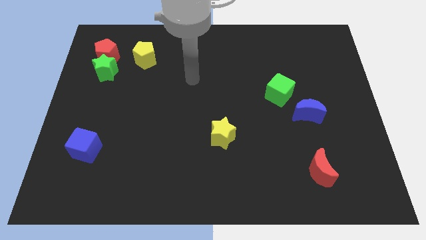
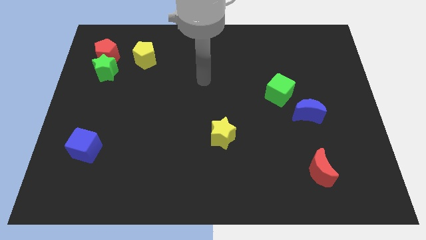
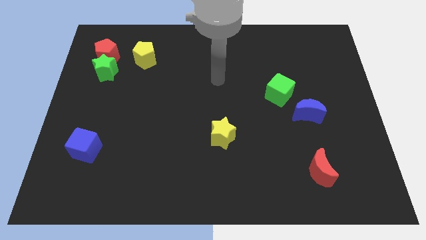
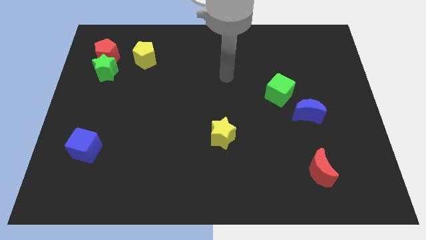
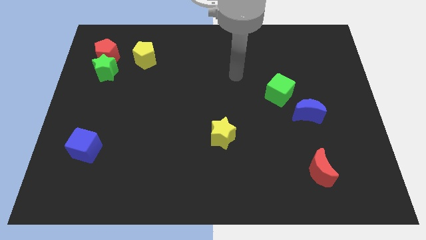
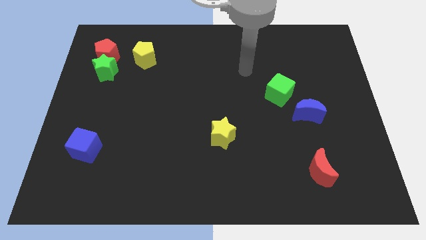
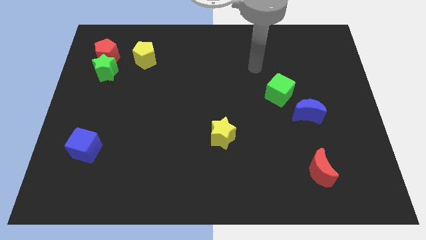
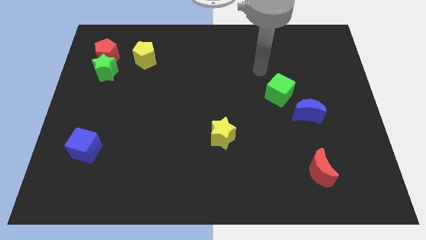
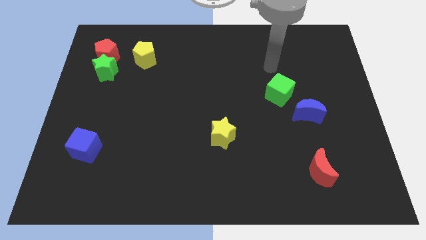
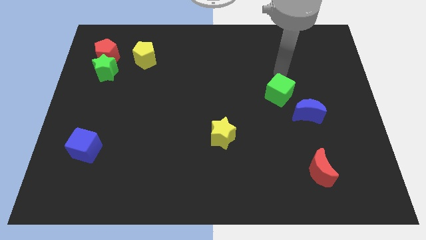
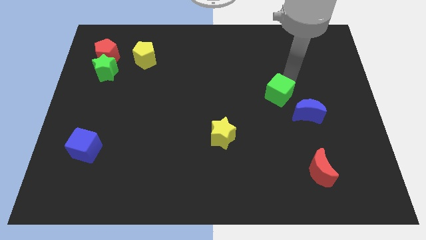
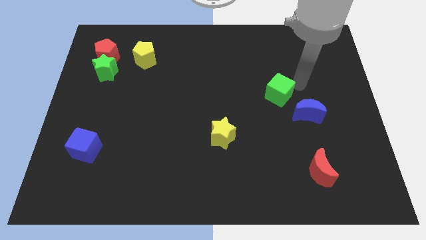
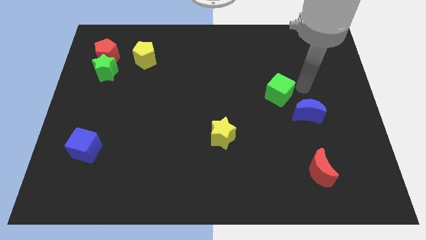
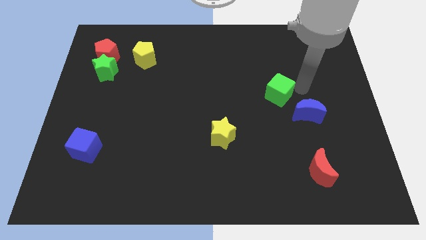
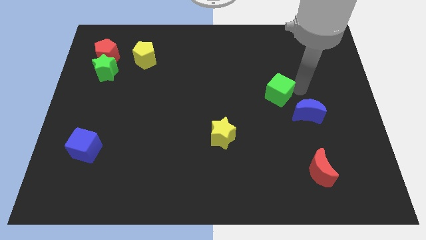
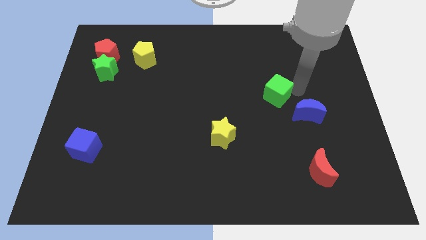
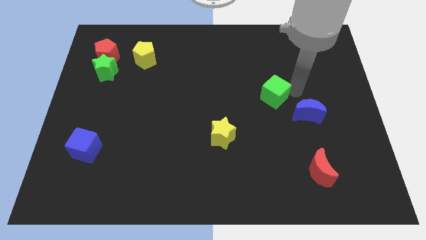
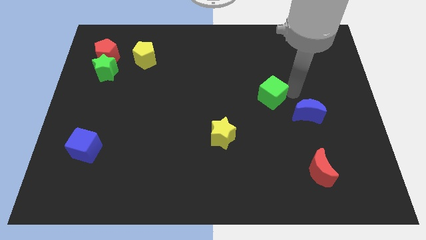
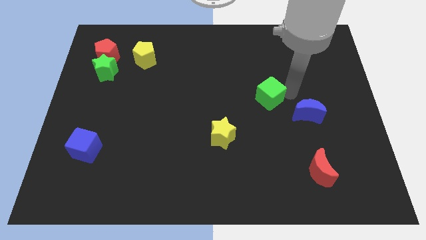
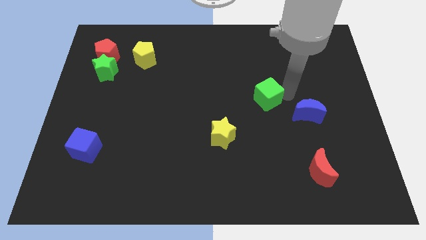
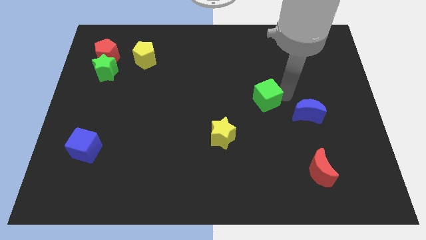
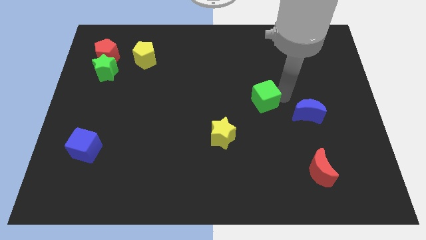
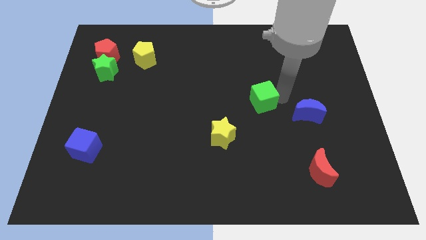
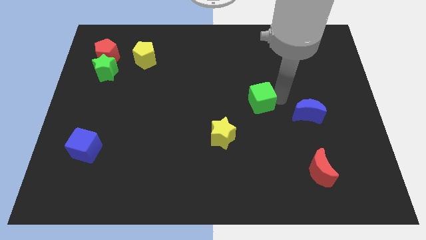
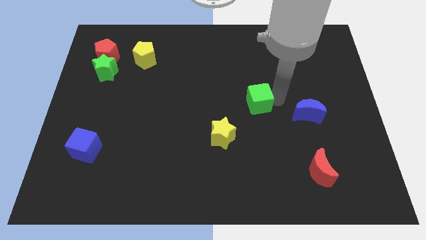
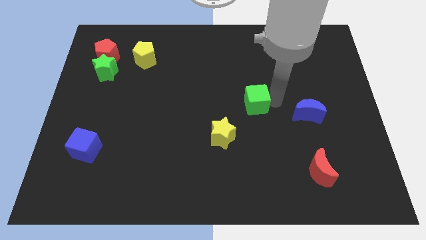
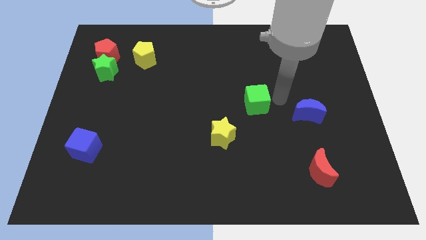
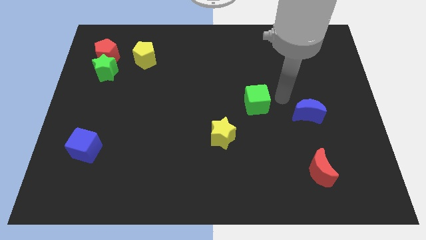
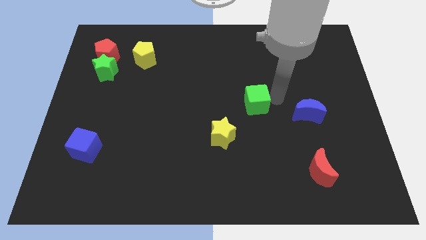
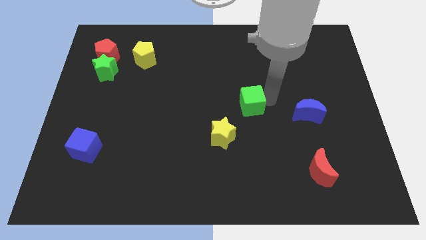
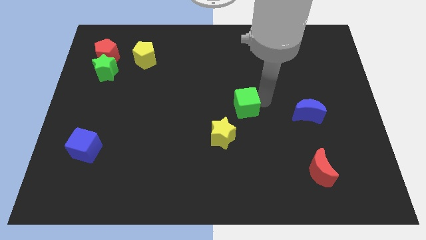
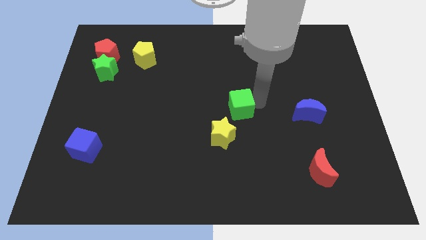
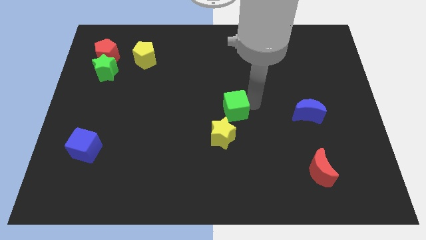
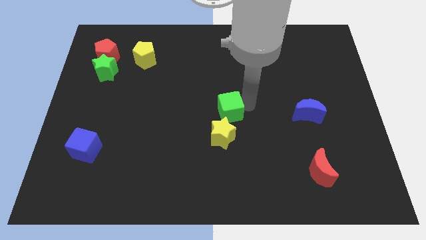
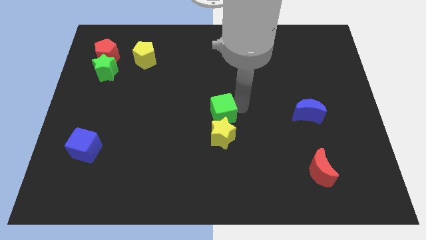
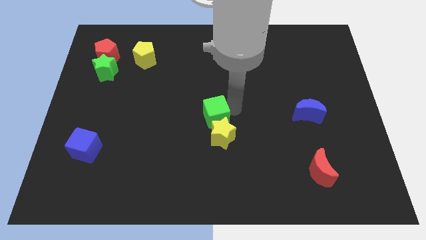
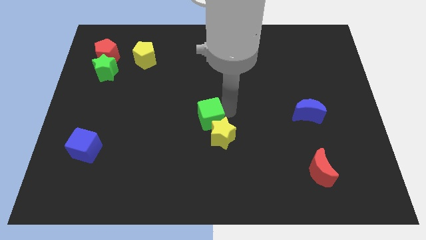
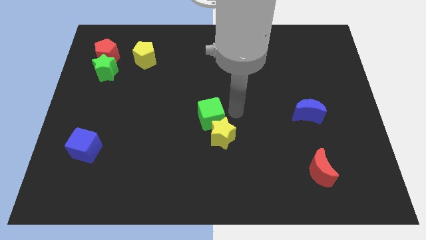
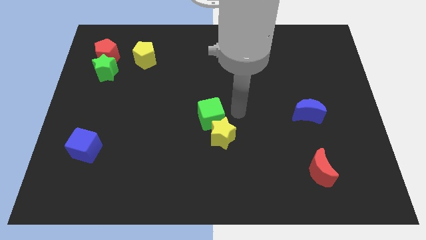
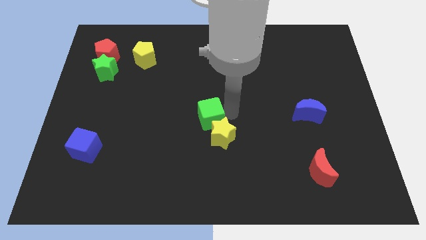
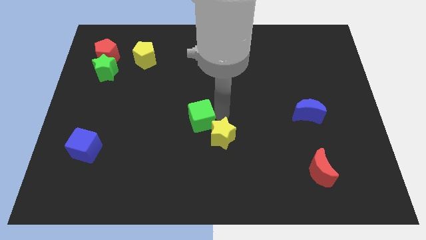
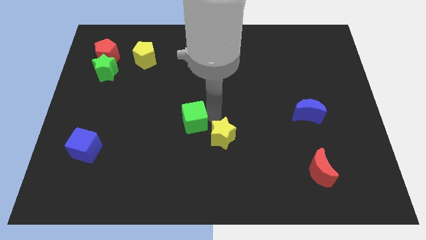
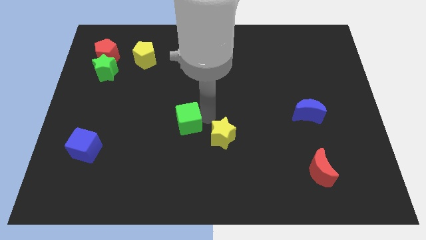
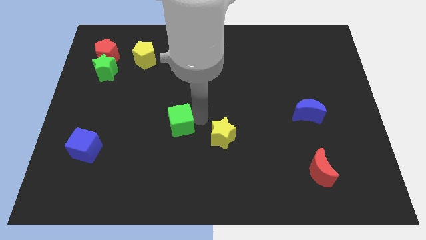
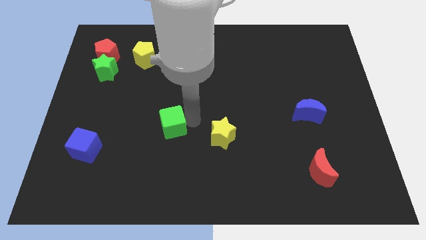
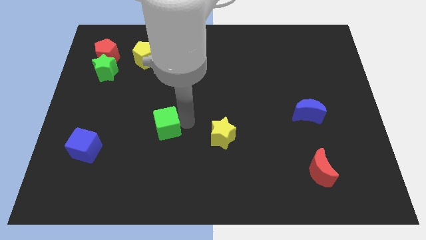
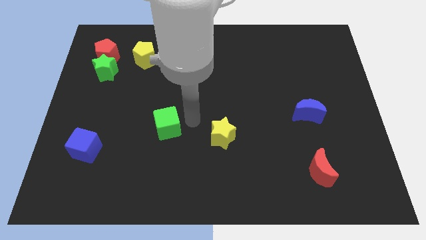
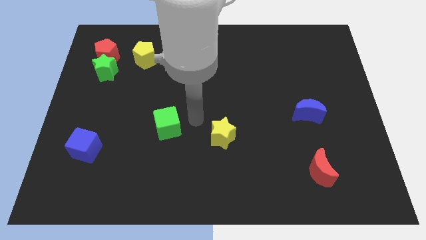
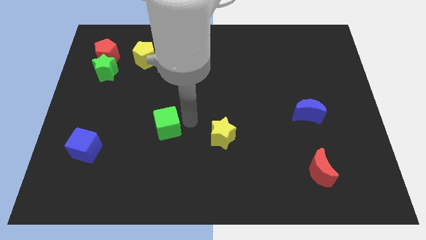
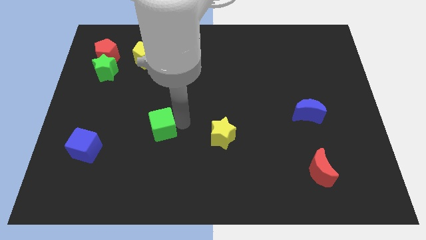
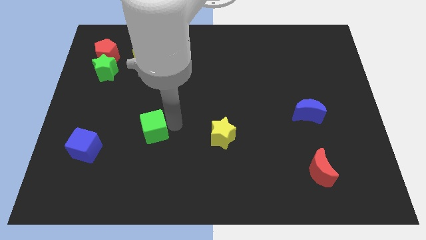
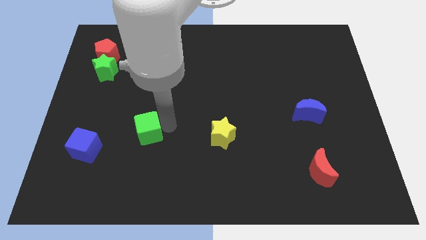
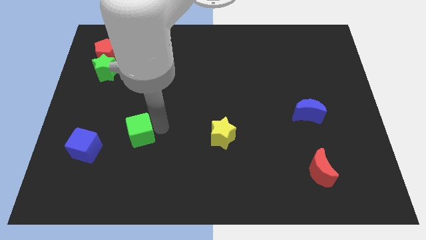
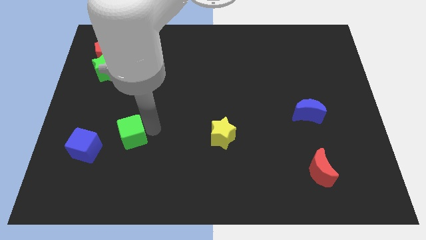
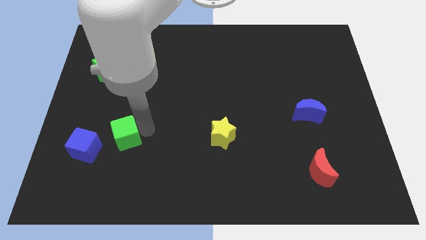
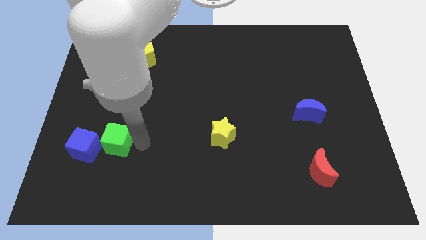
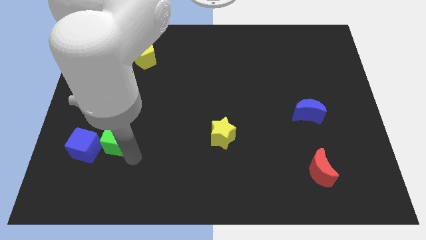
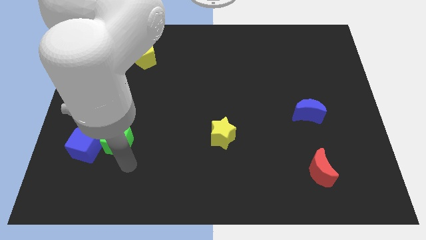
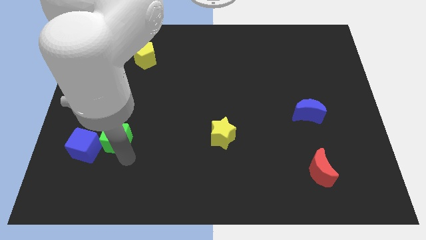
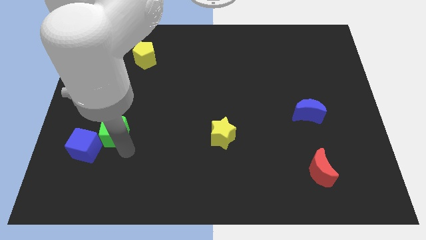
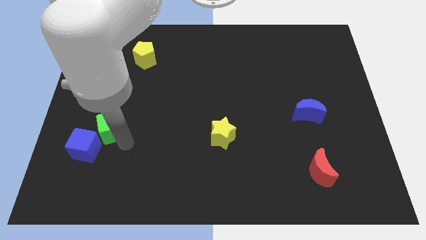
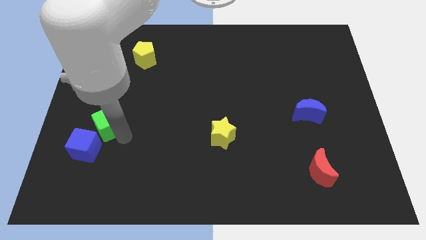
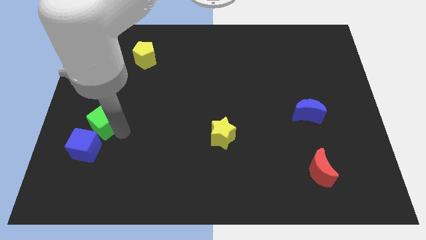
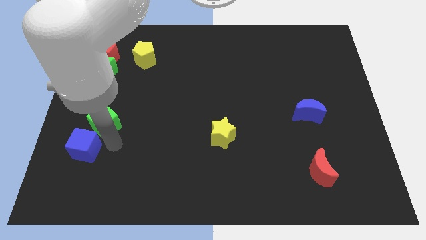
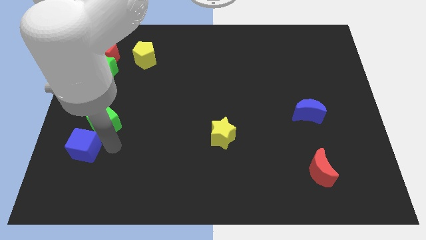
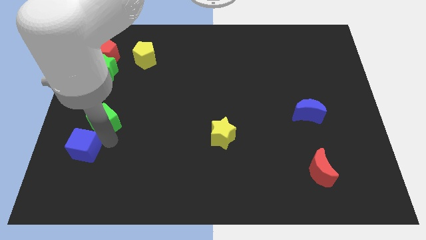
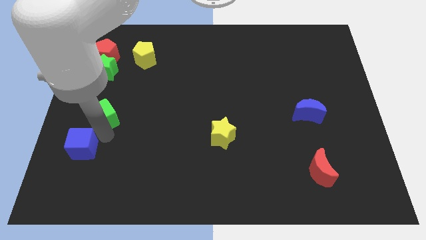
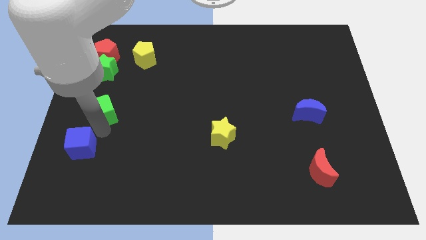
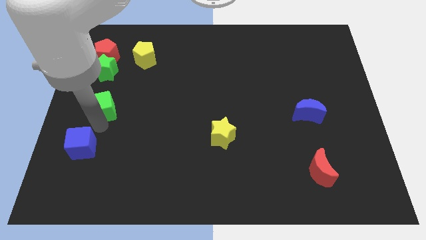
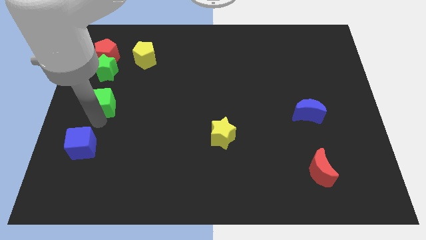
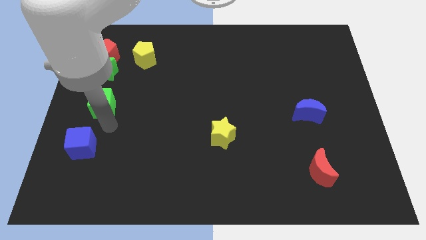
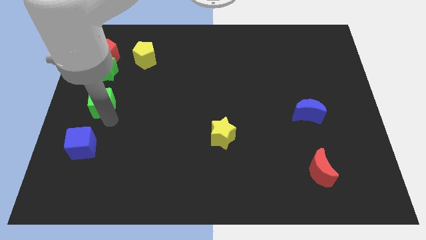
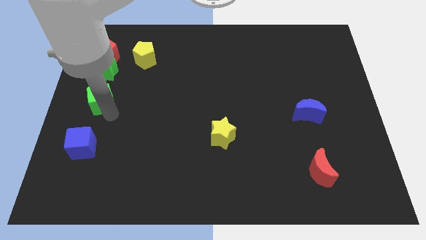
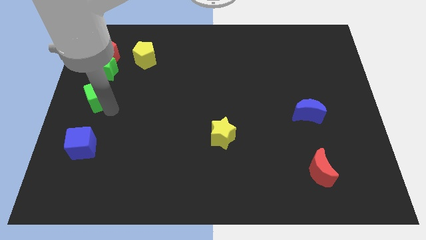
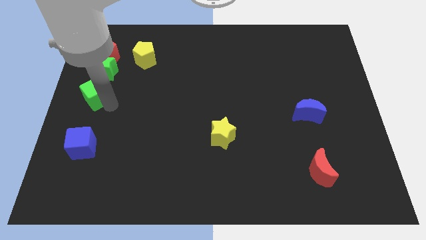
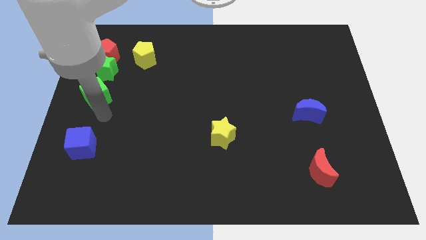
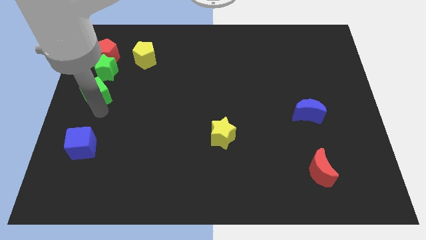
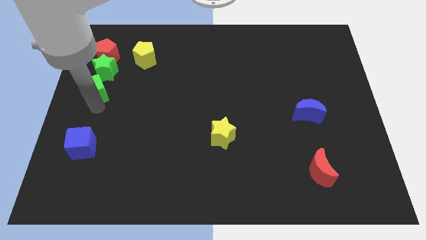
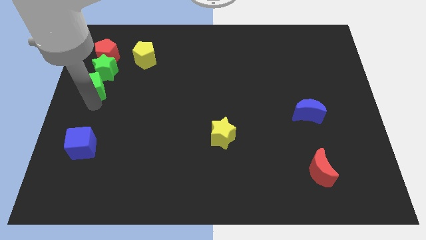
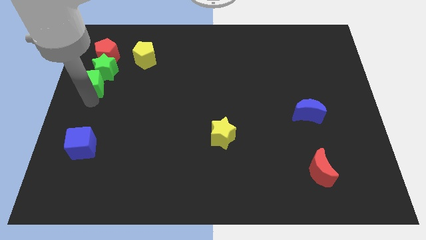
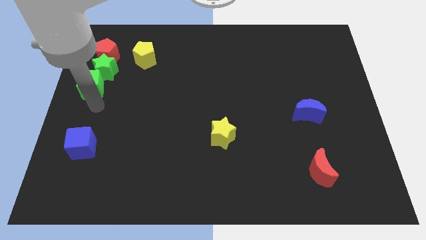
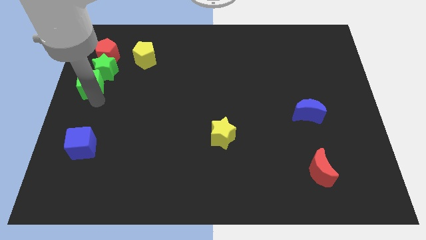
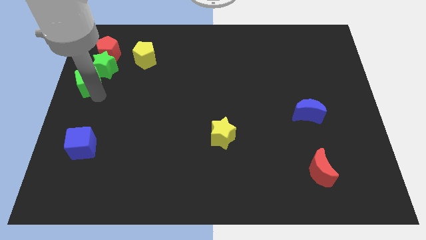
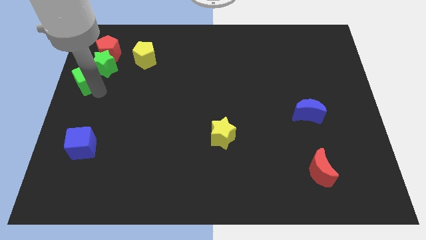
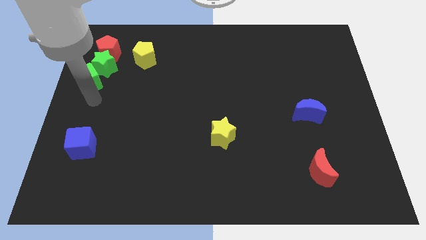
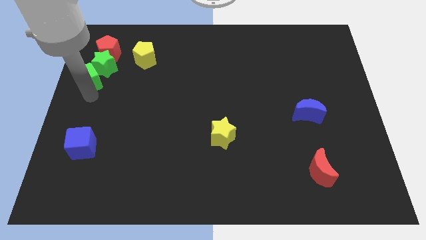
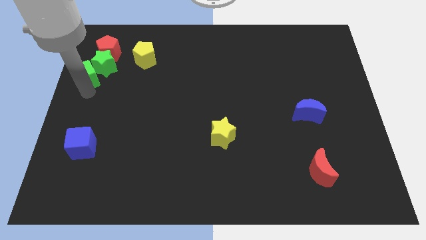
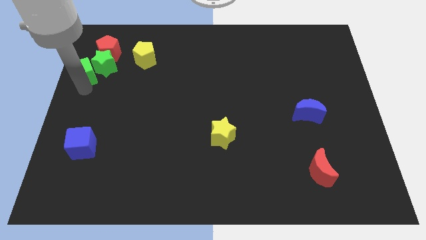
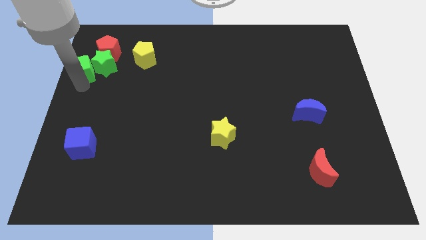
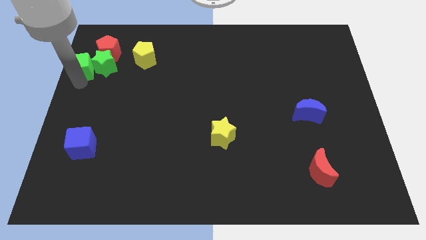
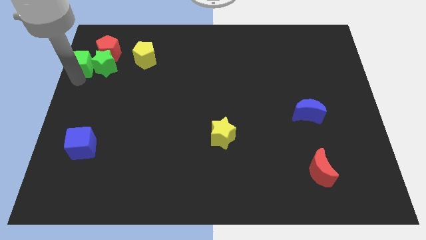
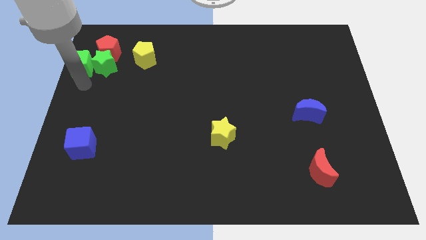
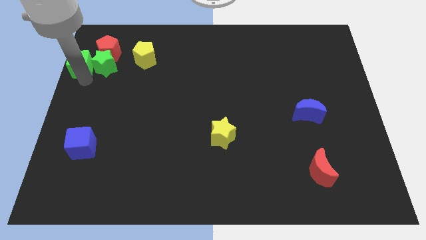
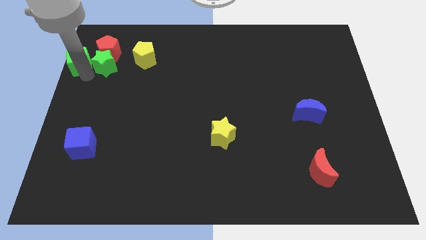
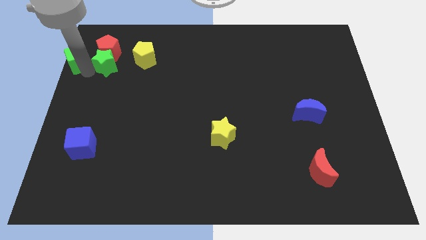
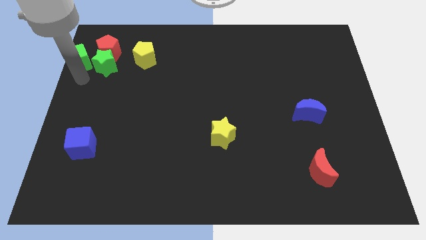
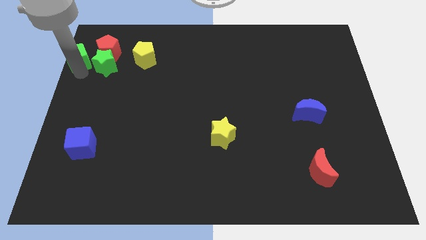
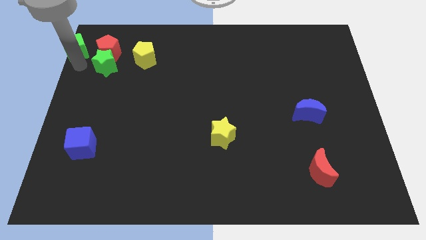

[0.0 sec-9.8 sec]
move the green cube to the top left
